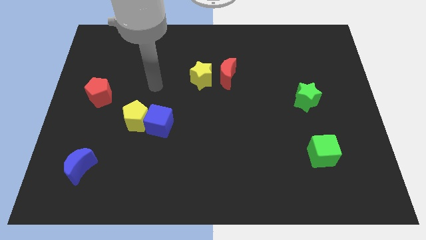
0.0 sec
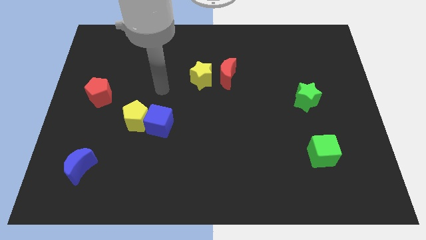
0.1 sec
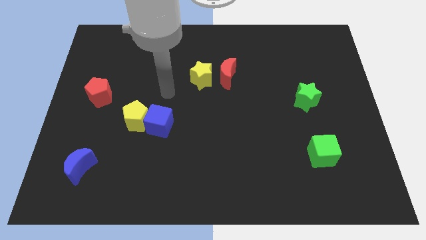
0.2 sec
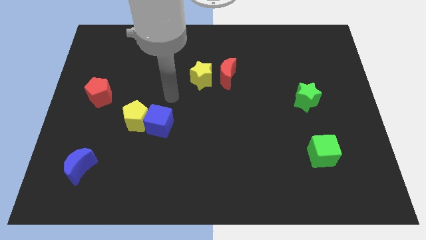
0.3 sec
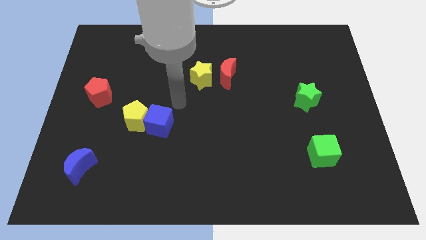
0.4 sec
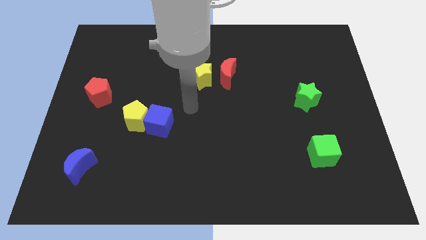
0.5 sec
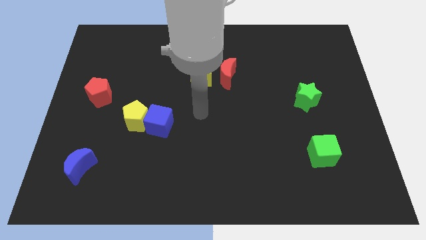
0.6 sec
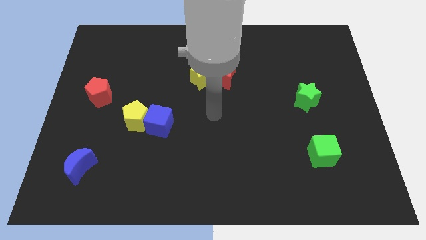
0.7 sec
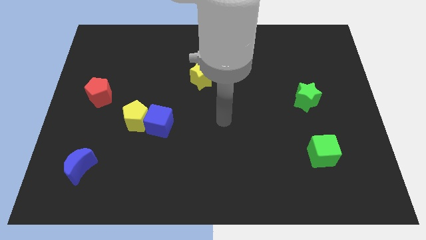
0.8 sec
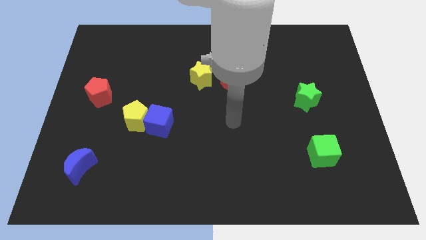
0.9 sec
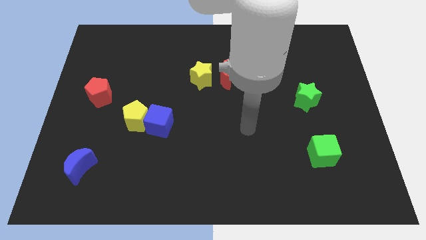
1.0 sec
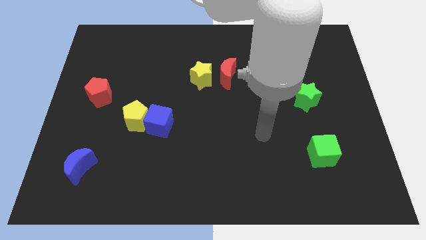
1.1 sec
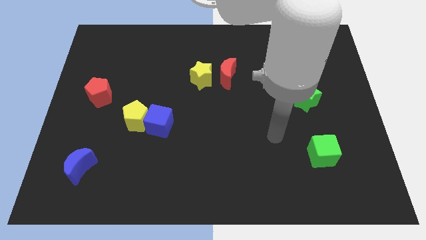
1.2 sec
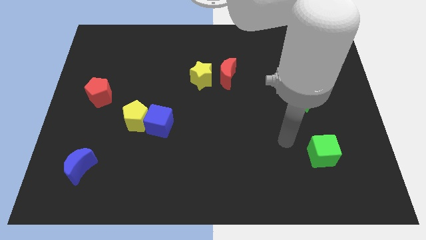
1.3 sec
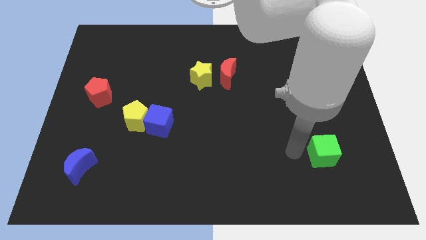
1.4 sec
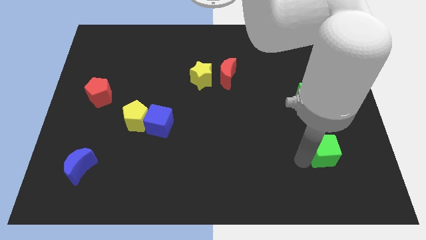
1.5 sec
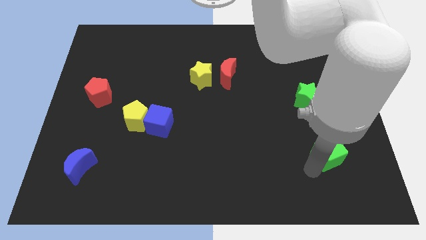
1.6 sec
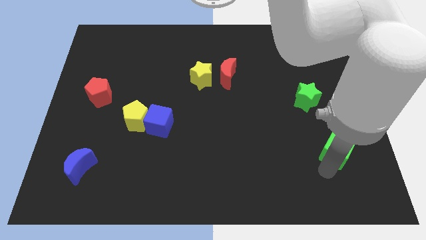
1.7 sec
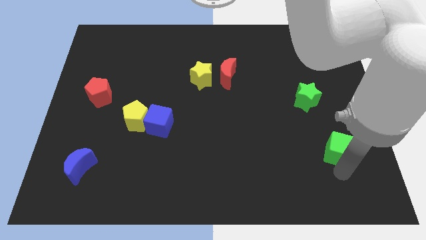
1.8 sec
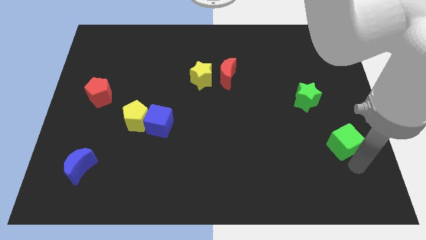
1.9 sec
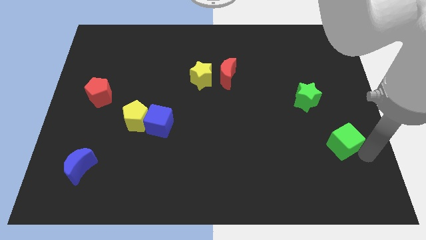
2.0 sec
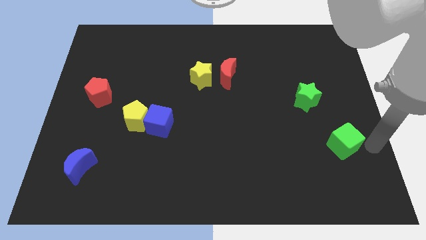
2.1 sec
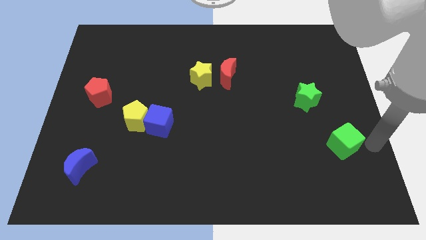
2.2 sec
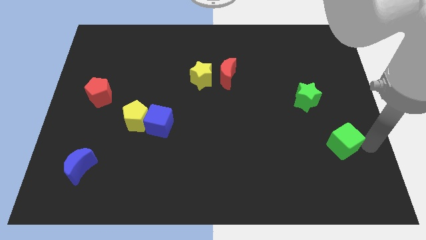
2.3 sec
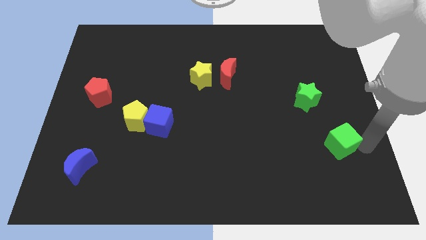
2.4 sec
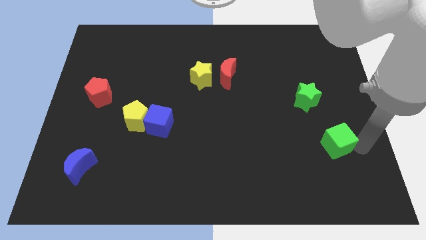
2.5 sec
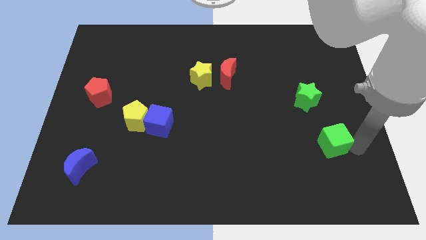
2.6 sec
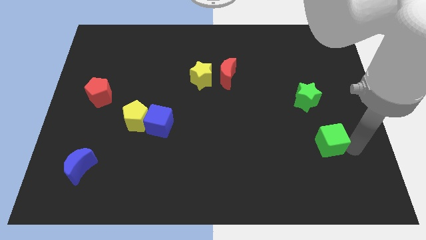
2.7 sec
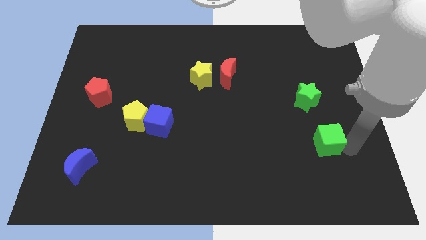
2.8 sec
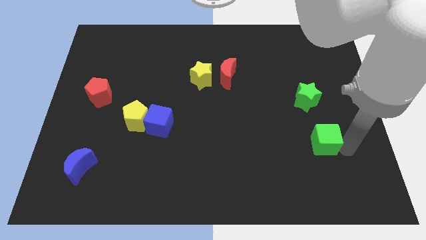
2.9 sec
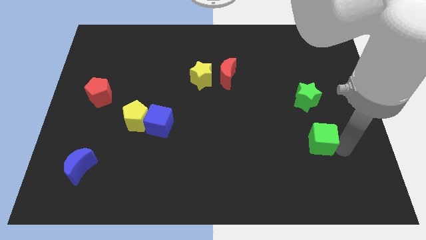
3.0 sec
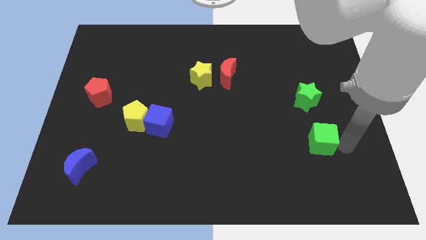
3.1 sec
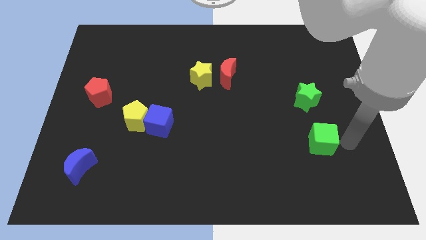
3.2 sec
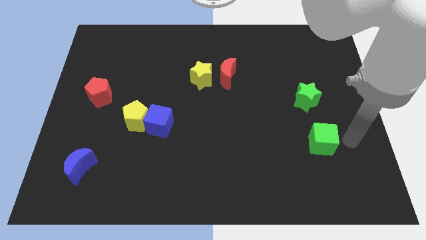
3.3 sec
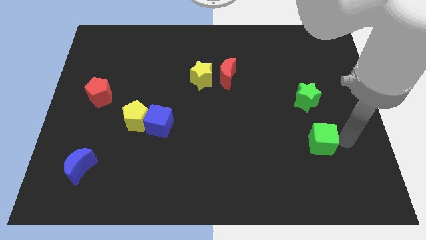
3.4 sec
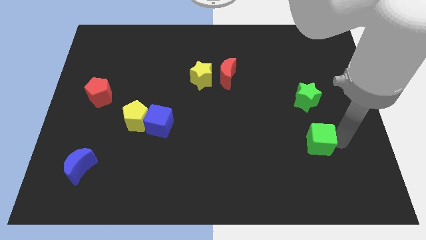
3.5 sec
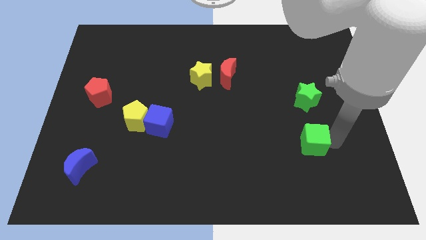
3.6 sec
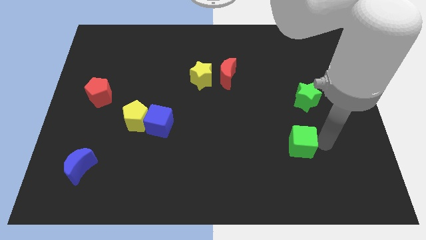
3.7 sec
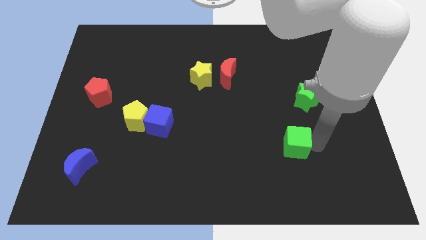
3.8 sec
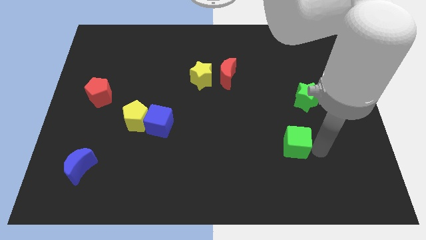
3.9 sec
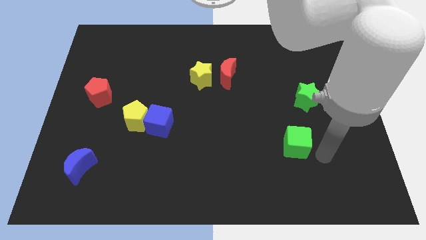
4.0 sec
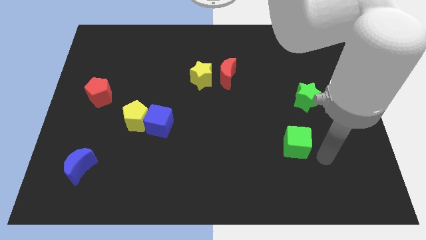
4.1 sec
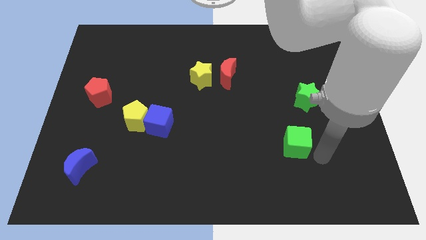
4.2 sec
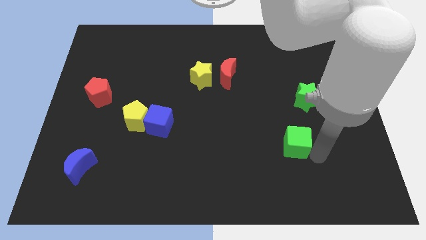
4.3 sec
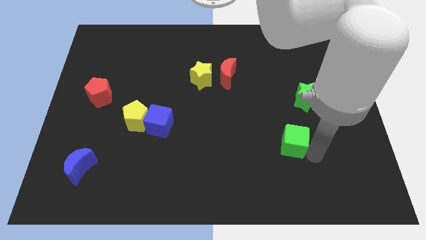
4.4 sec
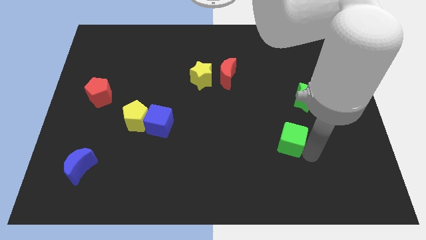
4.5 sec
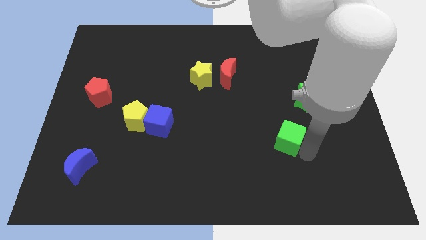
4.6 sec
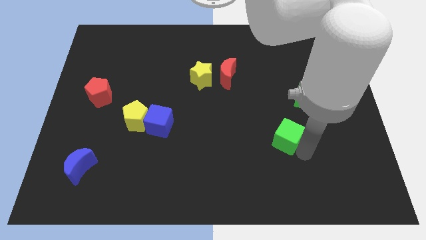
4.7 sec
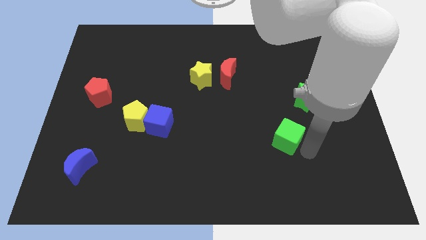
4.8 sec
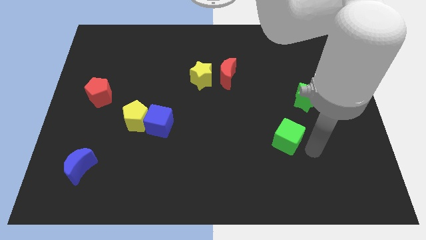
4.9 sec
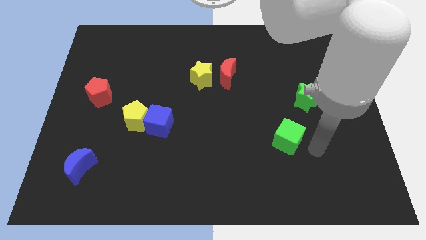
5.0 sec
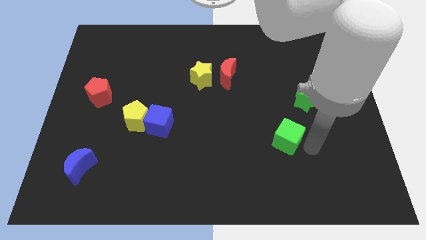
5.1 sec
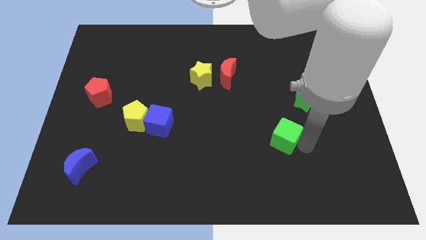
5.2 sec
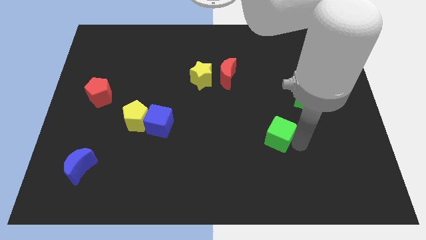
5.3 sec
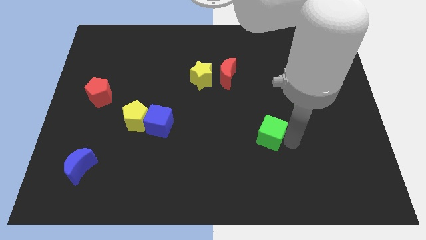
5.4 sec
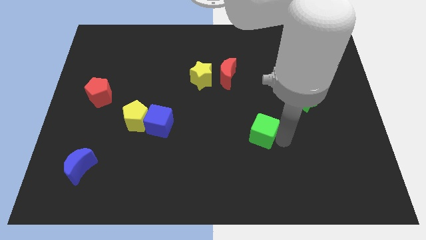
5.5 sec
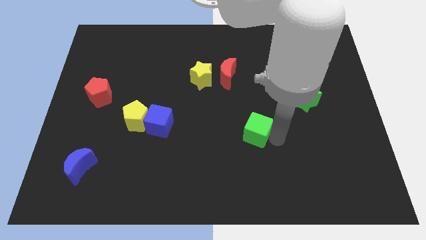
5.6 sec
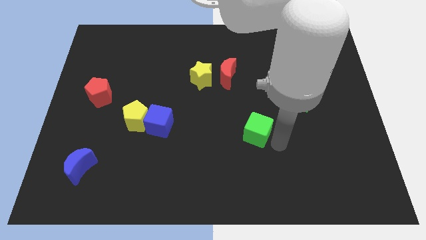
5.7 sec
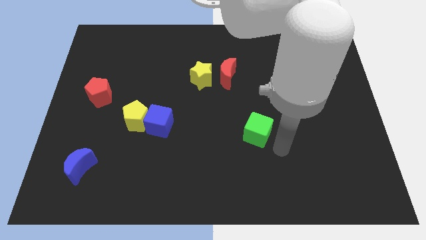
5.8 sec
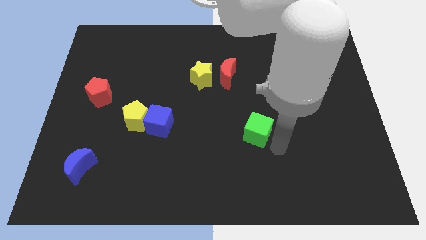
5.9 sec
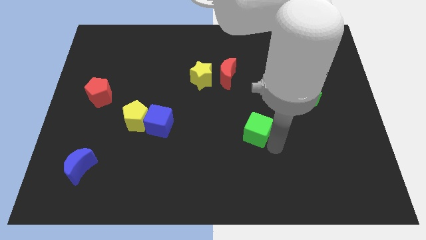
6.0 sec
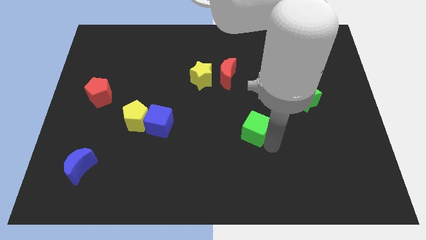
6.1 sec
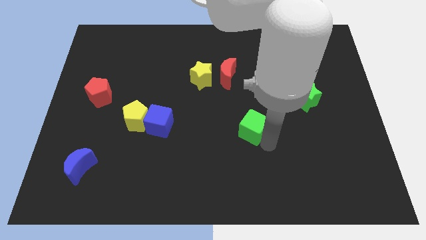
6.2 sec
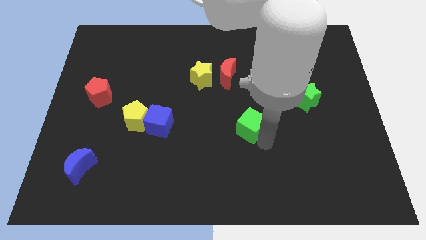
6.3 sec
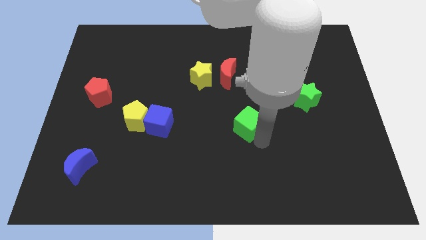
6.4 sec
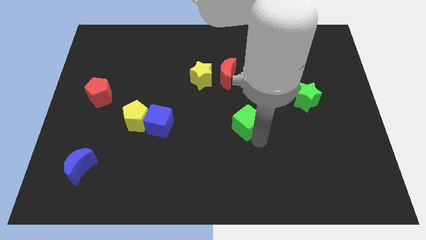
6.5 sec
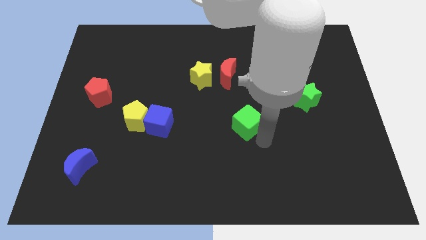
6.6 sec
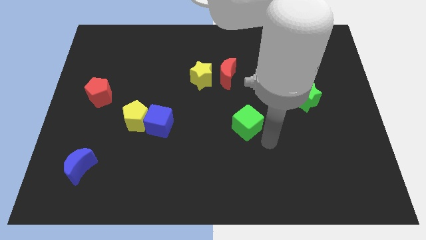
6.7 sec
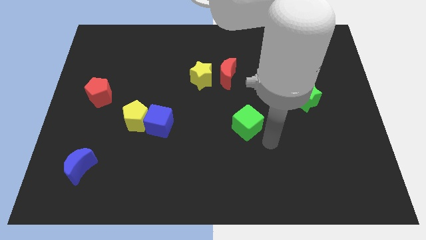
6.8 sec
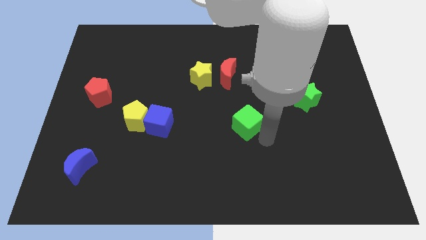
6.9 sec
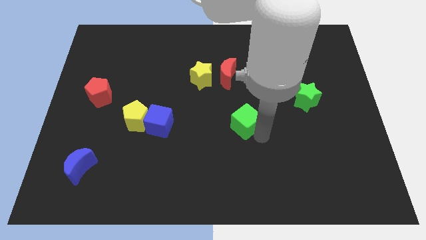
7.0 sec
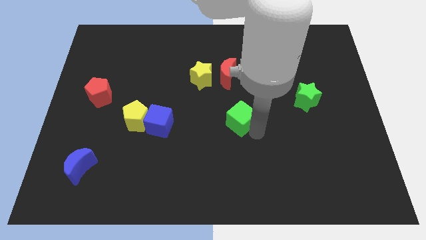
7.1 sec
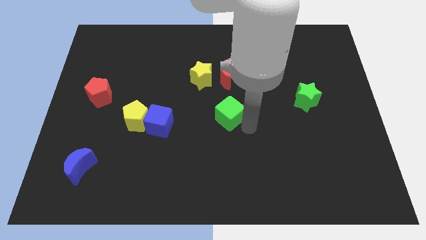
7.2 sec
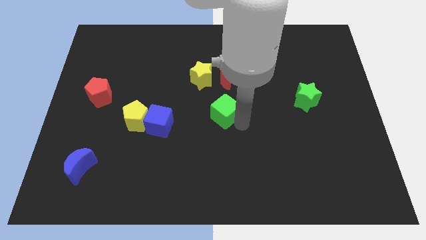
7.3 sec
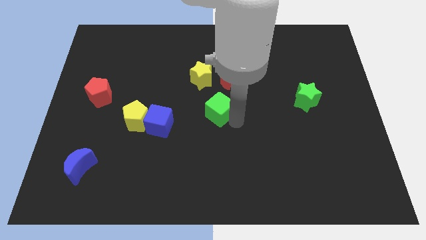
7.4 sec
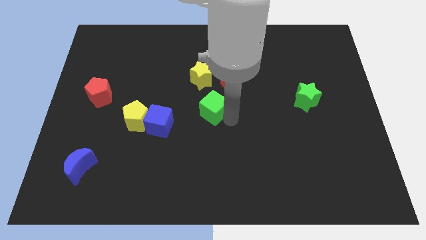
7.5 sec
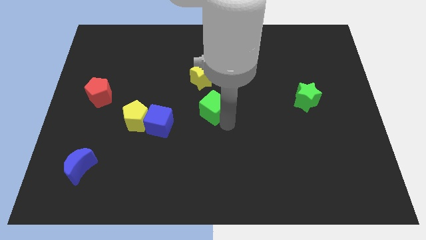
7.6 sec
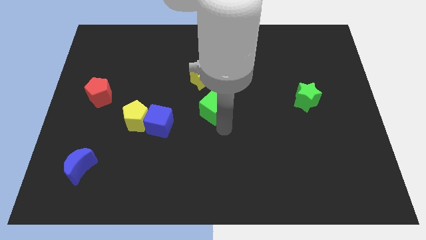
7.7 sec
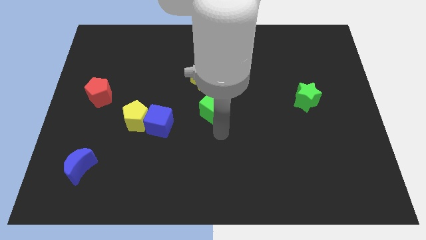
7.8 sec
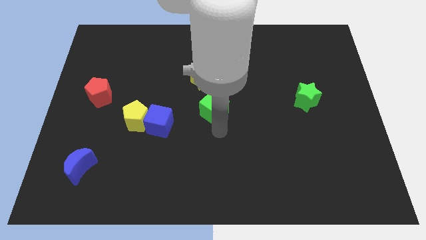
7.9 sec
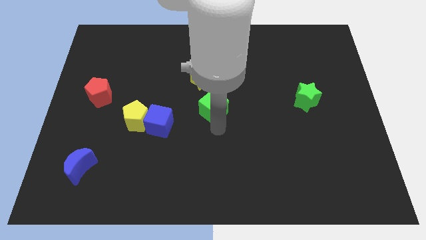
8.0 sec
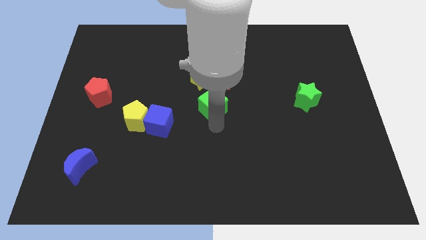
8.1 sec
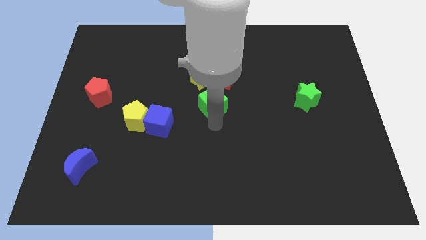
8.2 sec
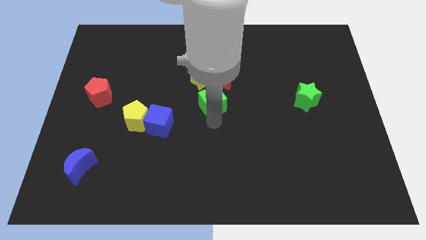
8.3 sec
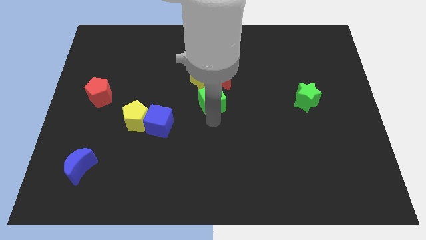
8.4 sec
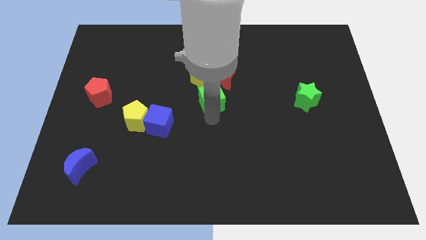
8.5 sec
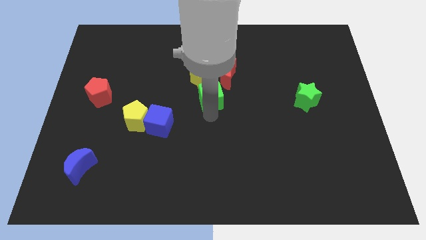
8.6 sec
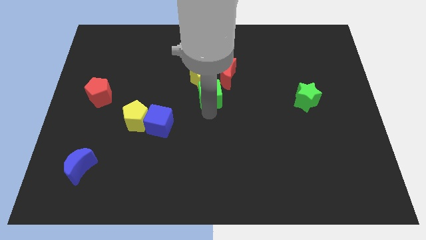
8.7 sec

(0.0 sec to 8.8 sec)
move the green cube towards the yellow star
